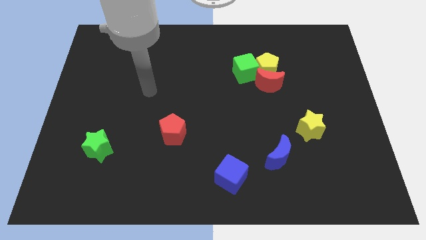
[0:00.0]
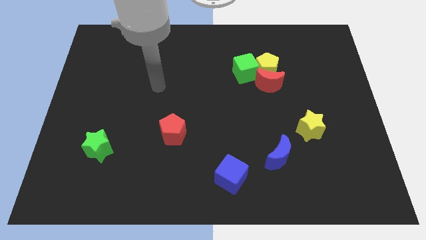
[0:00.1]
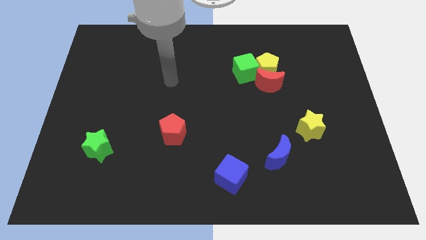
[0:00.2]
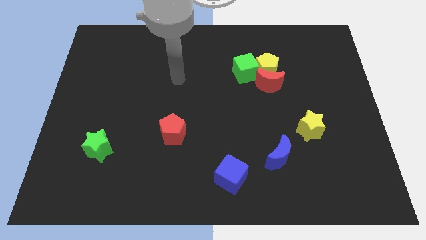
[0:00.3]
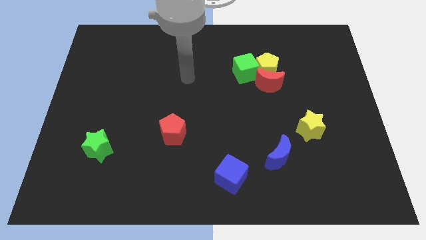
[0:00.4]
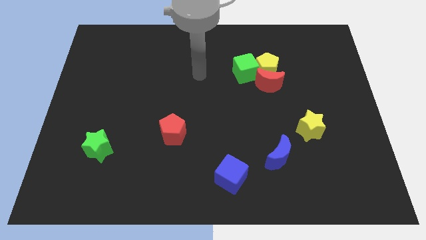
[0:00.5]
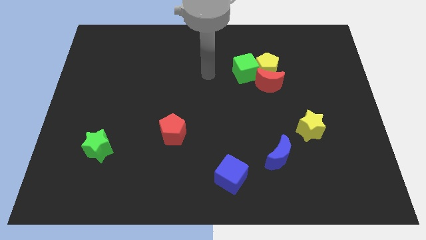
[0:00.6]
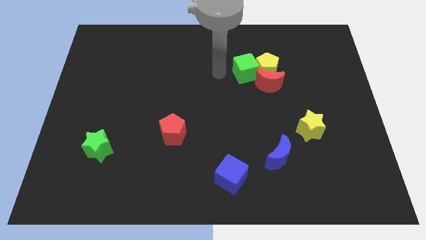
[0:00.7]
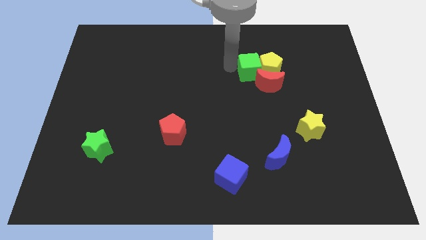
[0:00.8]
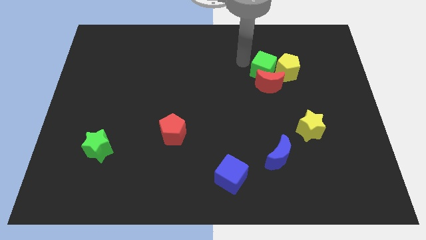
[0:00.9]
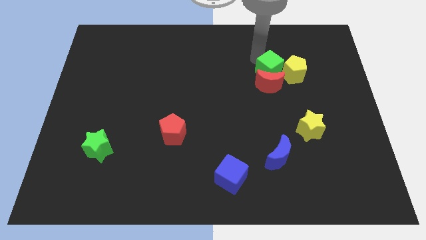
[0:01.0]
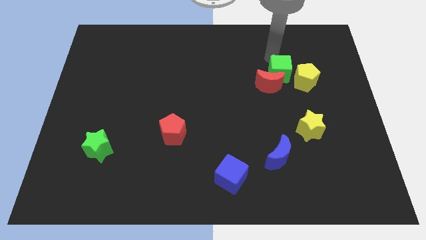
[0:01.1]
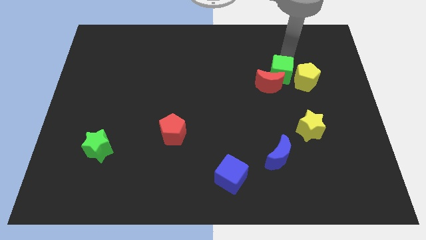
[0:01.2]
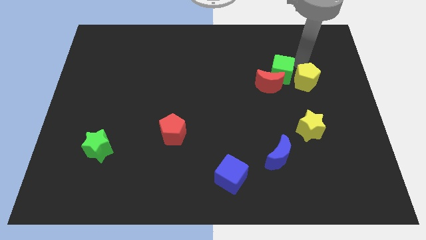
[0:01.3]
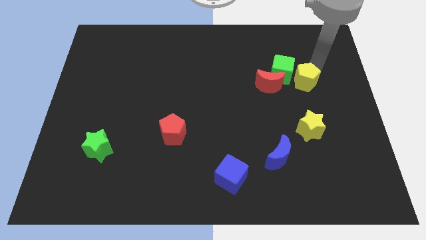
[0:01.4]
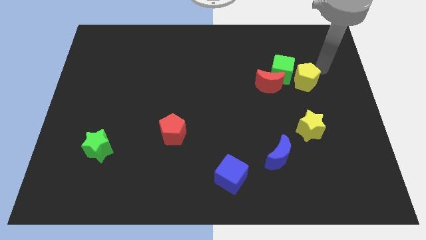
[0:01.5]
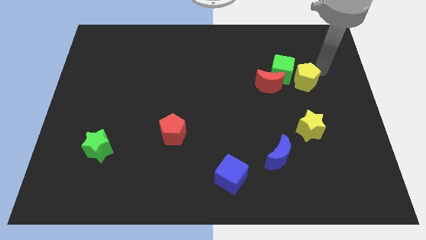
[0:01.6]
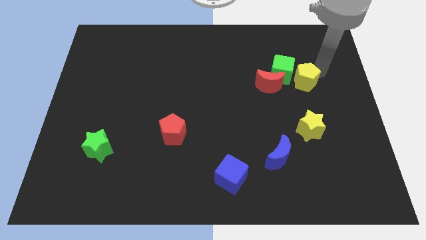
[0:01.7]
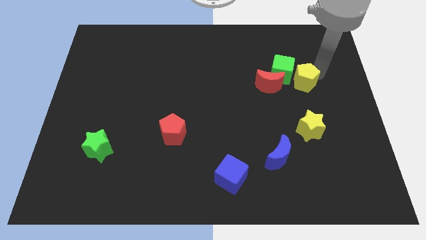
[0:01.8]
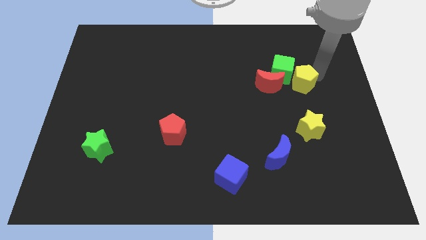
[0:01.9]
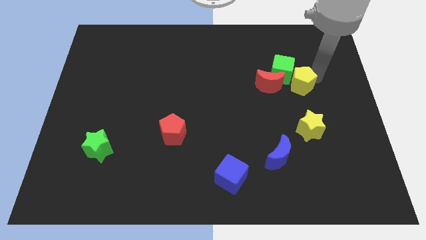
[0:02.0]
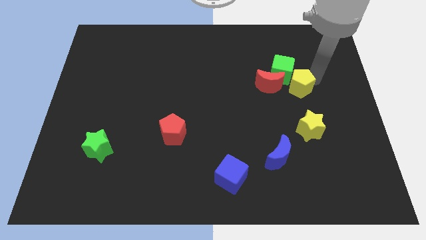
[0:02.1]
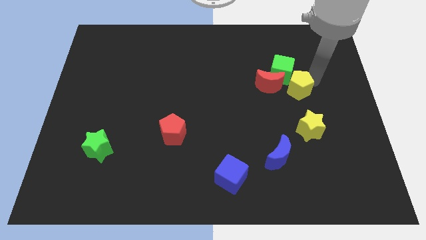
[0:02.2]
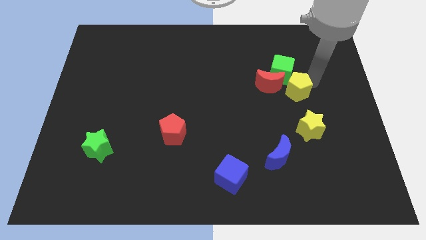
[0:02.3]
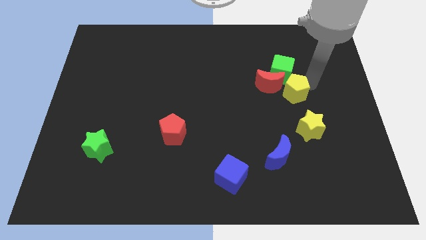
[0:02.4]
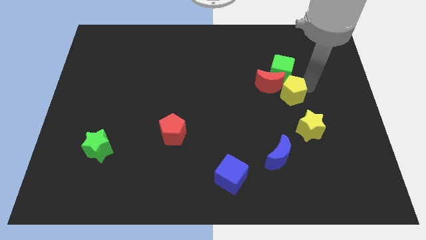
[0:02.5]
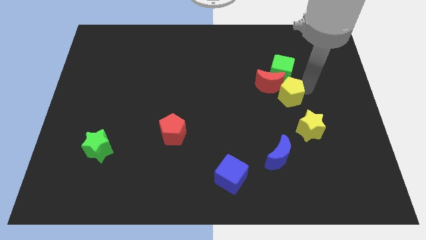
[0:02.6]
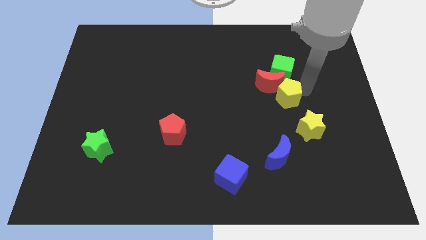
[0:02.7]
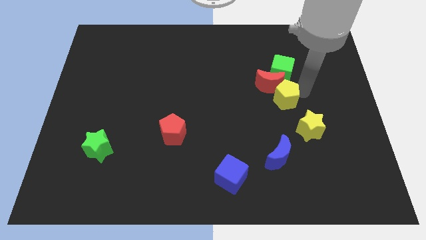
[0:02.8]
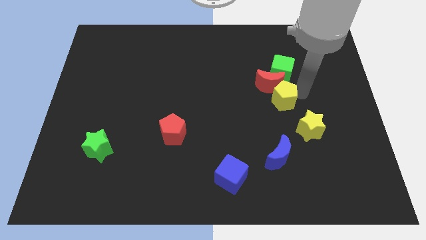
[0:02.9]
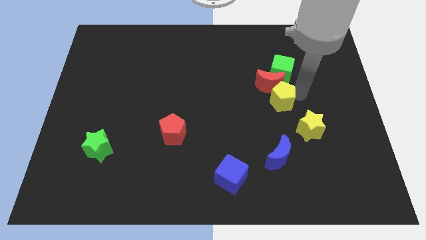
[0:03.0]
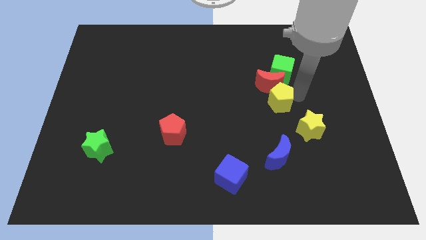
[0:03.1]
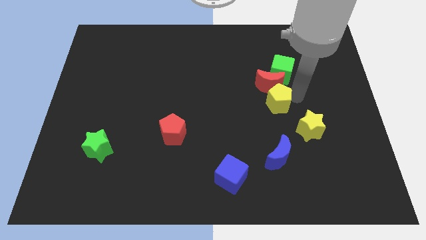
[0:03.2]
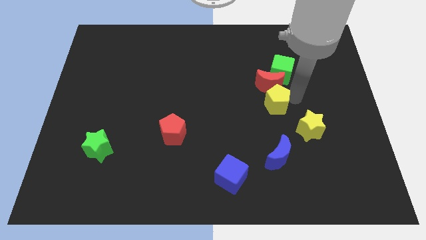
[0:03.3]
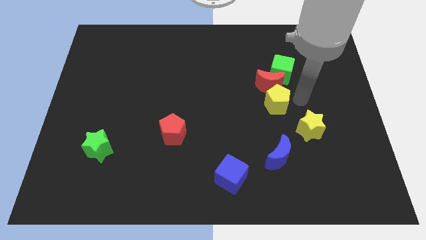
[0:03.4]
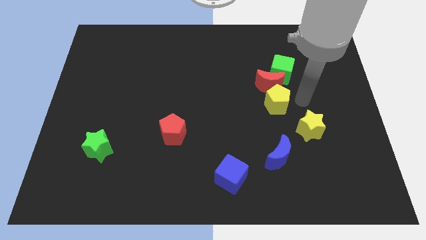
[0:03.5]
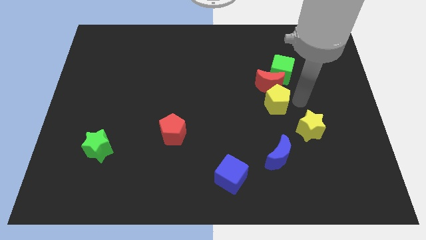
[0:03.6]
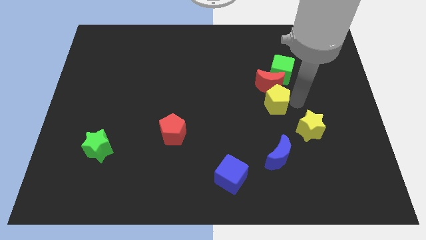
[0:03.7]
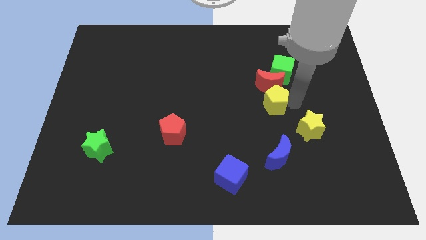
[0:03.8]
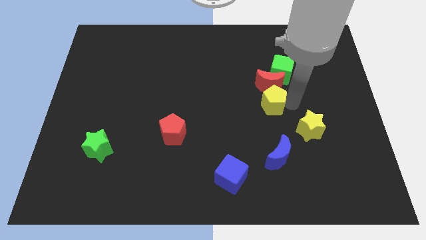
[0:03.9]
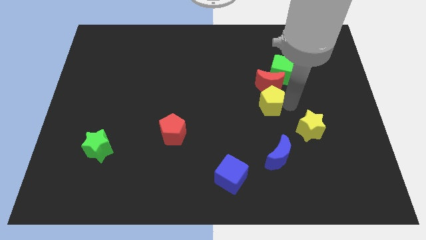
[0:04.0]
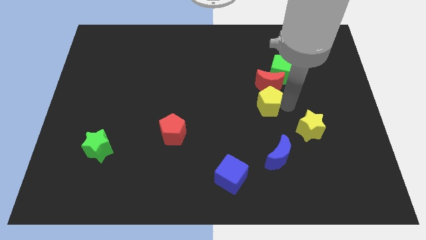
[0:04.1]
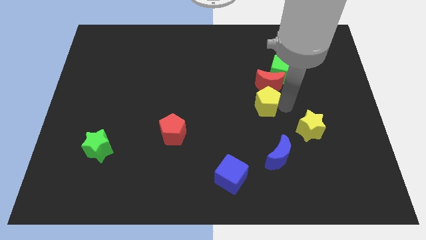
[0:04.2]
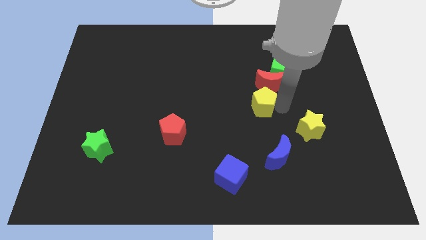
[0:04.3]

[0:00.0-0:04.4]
move the yellow pentagon a little down and left diagonally

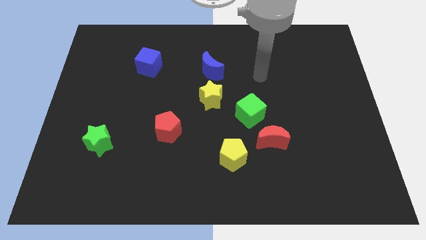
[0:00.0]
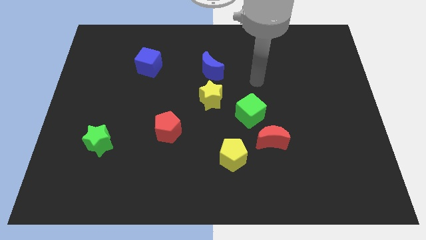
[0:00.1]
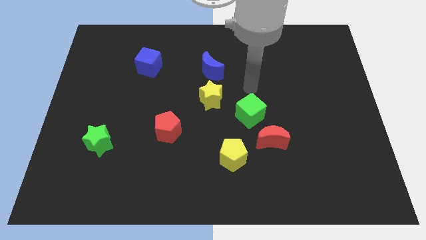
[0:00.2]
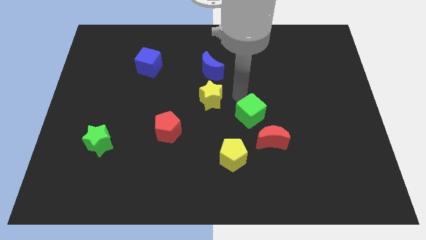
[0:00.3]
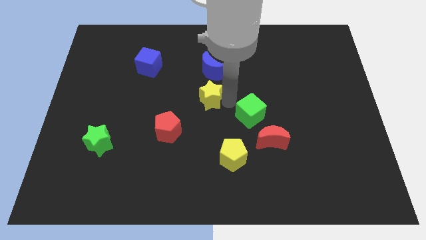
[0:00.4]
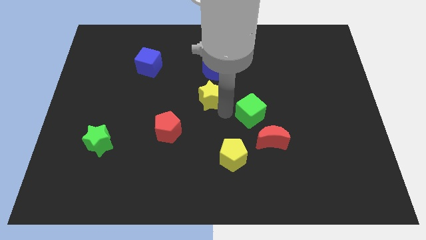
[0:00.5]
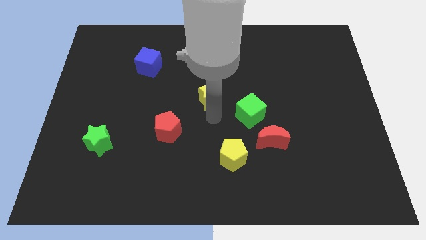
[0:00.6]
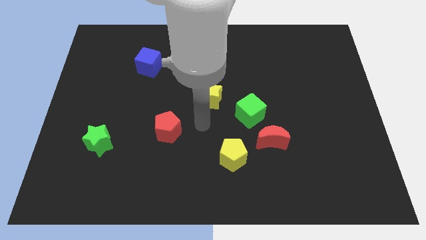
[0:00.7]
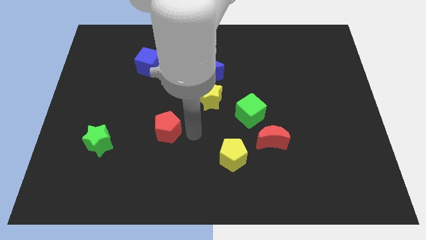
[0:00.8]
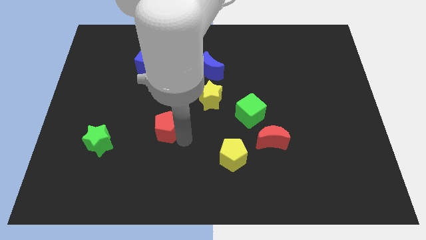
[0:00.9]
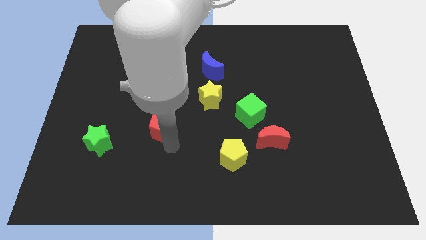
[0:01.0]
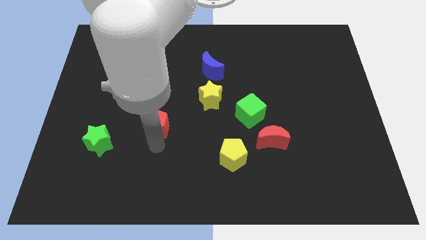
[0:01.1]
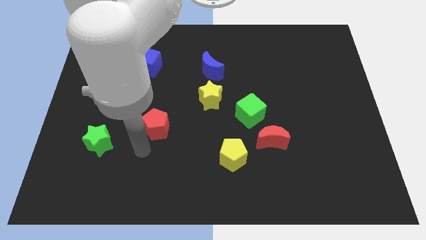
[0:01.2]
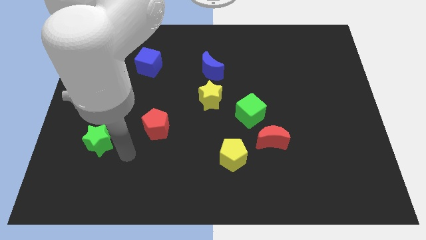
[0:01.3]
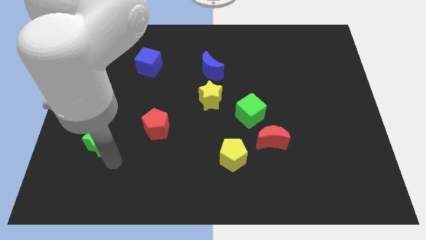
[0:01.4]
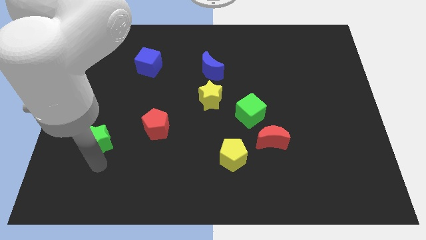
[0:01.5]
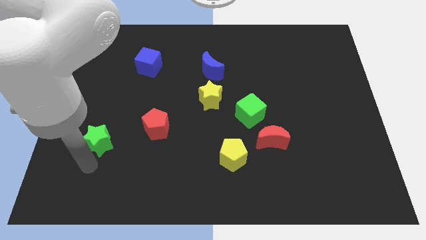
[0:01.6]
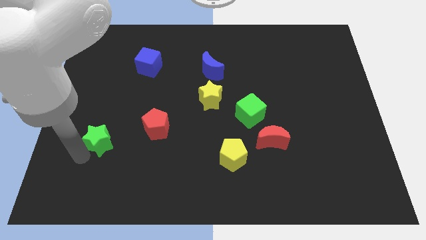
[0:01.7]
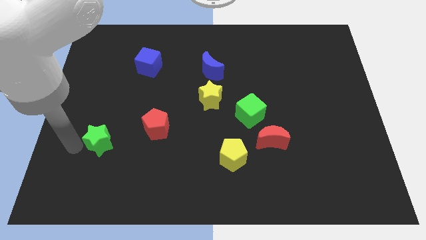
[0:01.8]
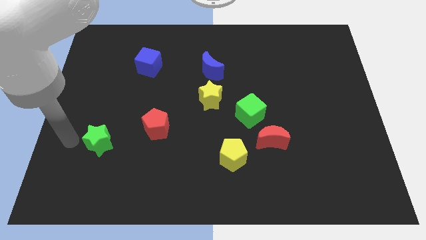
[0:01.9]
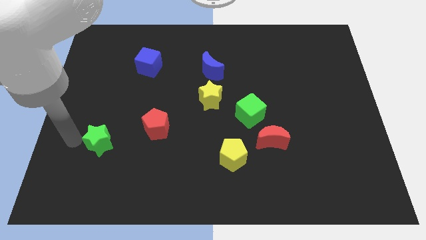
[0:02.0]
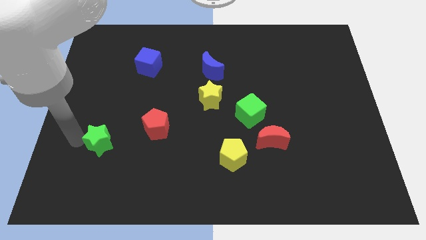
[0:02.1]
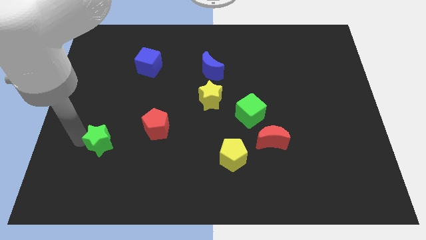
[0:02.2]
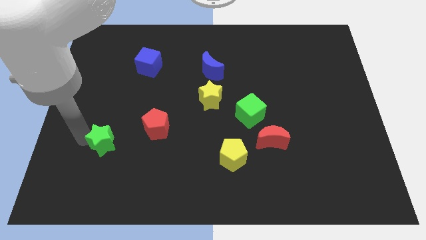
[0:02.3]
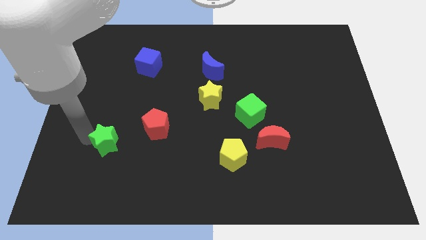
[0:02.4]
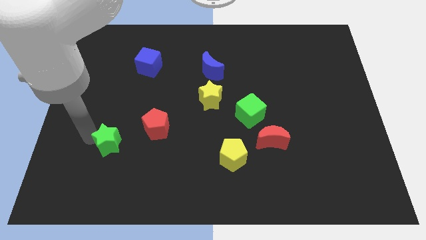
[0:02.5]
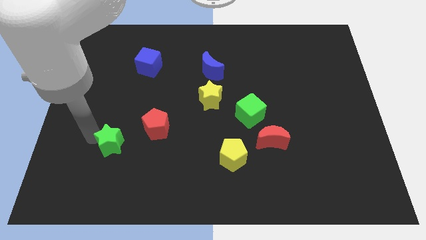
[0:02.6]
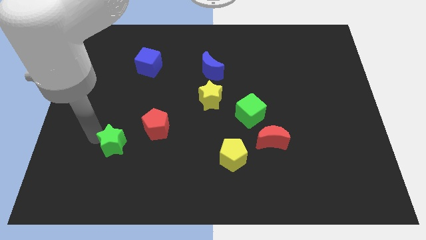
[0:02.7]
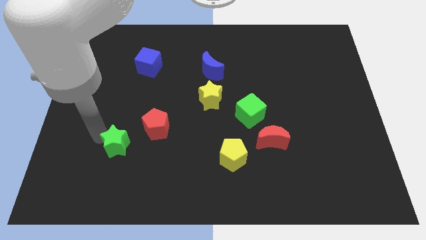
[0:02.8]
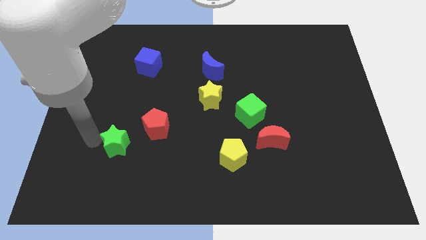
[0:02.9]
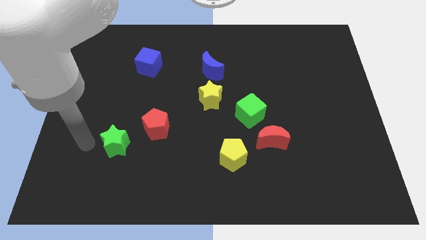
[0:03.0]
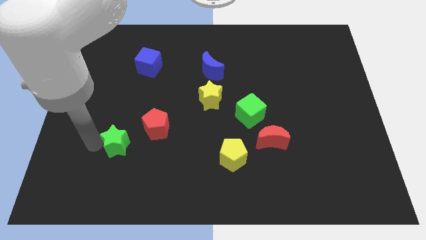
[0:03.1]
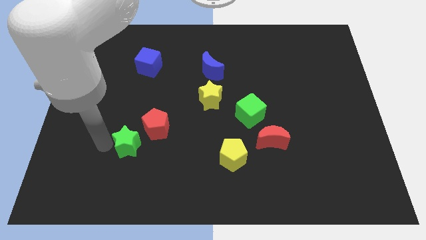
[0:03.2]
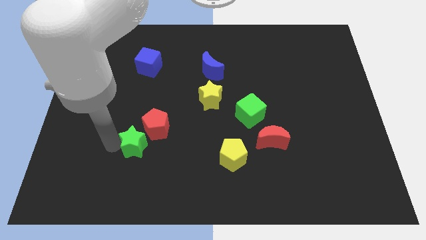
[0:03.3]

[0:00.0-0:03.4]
slightly move the green star right

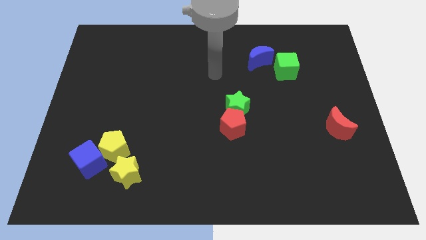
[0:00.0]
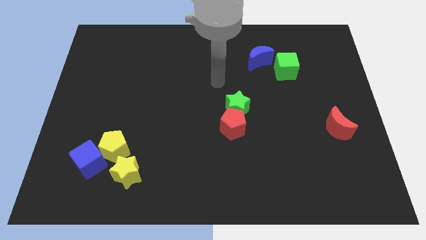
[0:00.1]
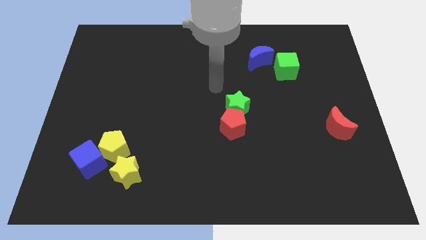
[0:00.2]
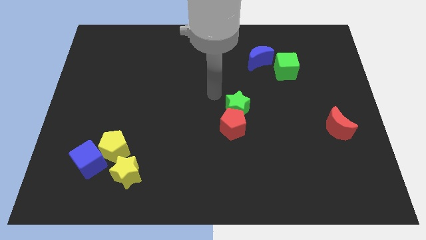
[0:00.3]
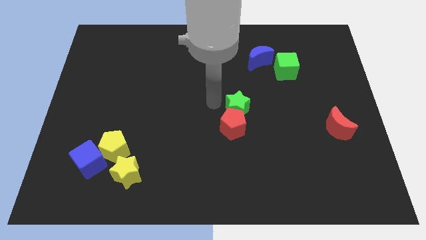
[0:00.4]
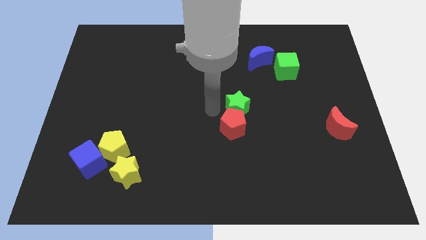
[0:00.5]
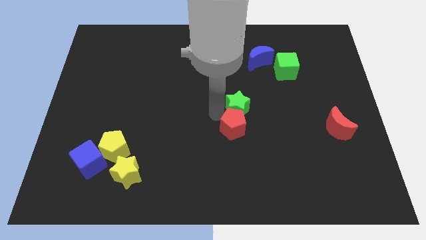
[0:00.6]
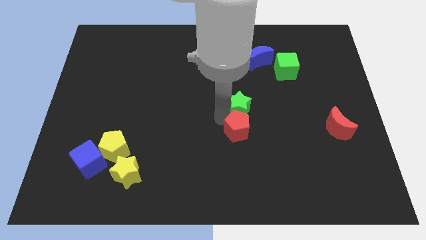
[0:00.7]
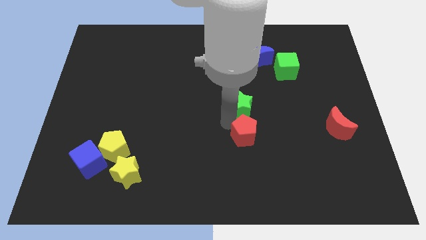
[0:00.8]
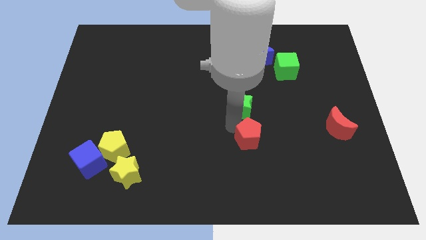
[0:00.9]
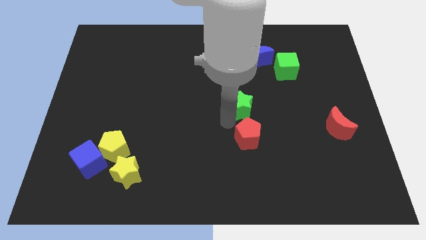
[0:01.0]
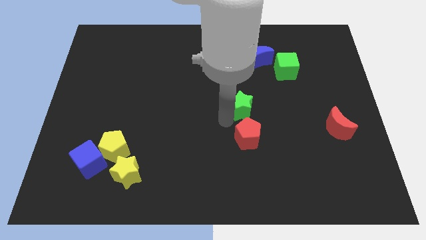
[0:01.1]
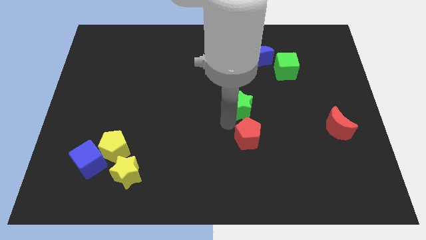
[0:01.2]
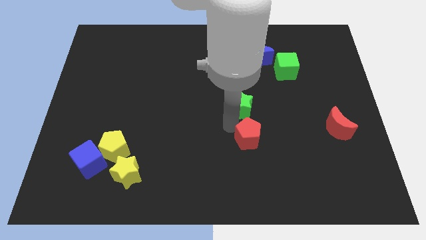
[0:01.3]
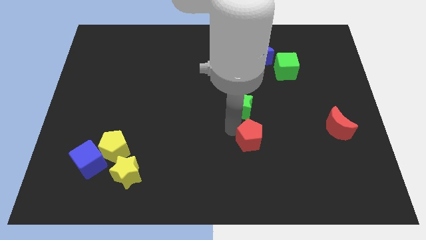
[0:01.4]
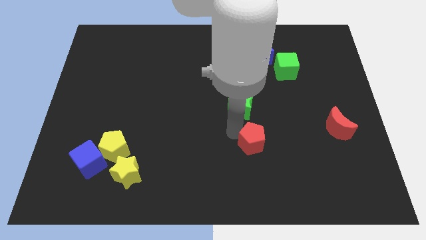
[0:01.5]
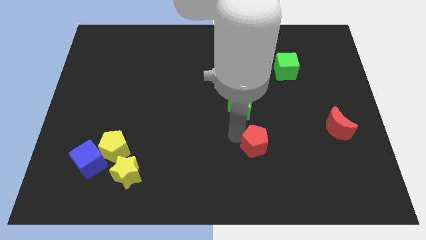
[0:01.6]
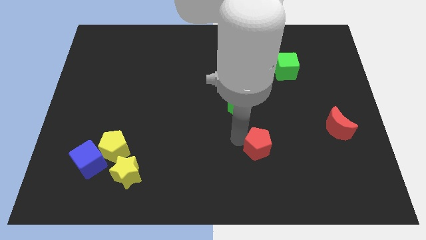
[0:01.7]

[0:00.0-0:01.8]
move the red pentagon a bit diagonally down and right
